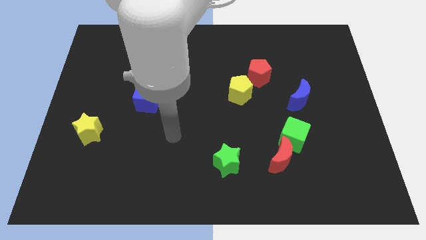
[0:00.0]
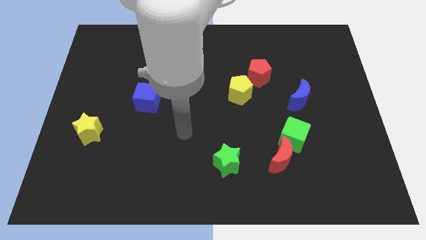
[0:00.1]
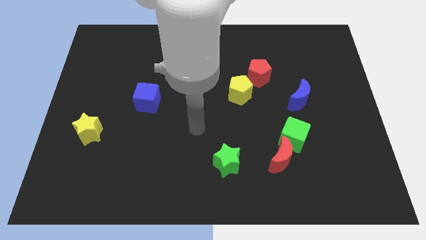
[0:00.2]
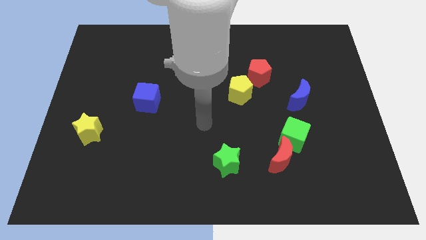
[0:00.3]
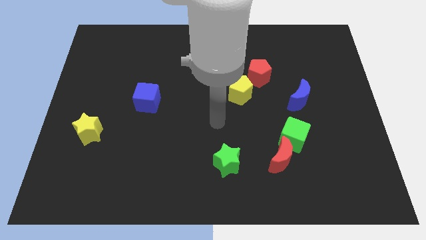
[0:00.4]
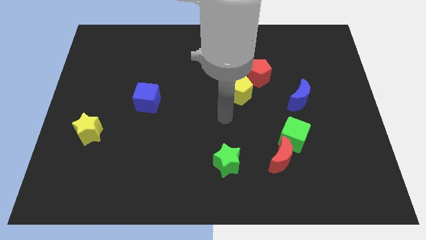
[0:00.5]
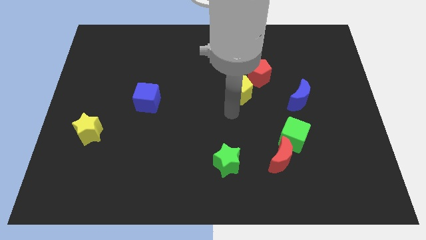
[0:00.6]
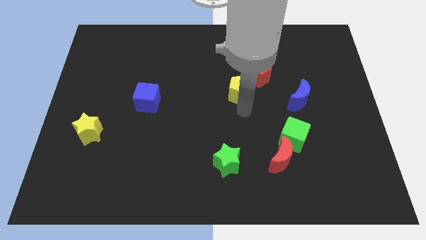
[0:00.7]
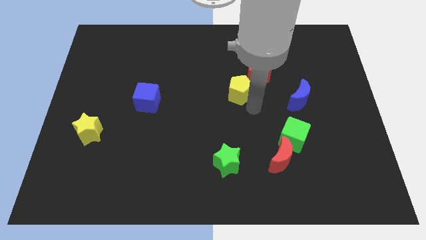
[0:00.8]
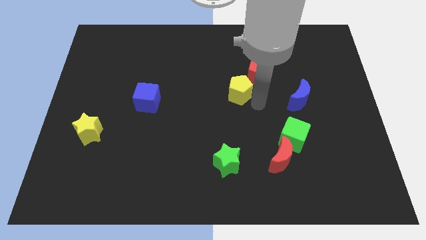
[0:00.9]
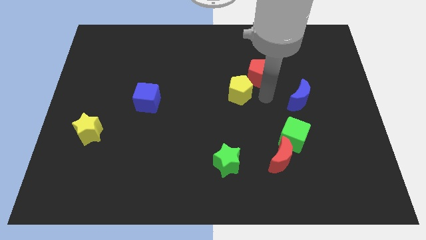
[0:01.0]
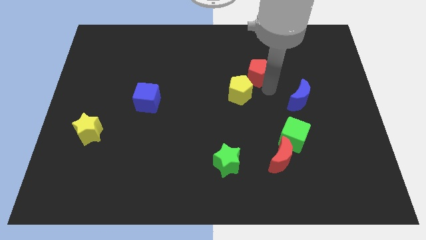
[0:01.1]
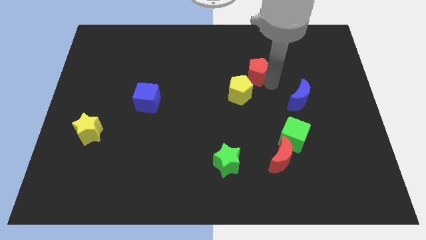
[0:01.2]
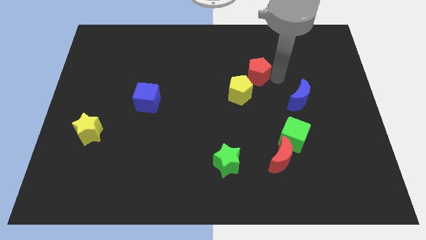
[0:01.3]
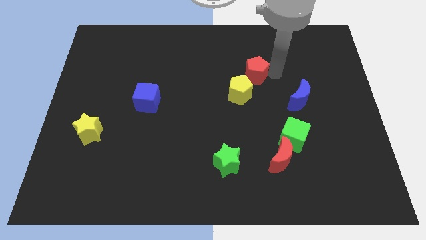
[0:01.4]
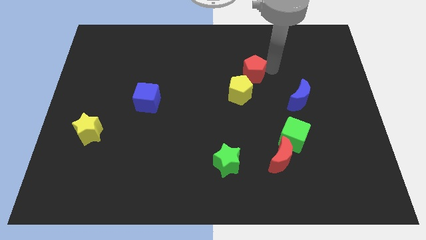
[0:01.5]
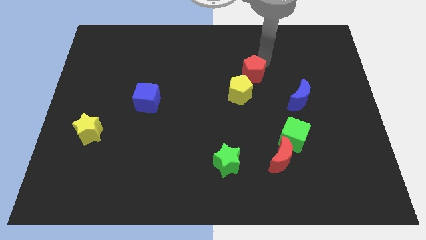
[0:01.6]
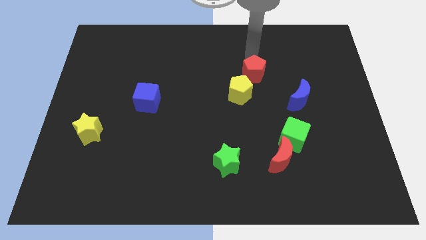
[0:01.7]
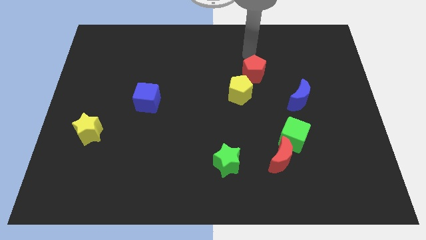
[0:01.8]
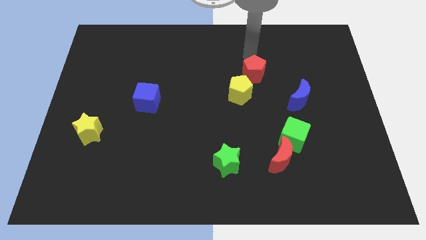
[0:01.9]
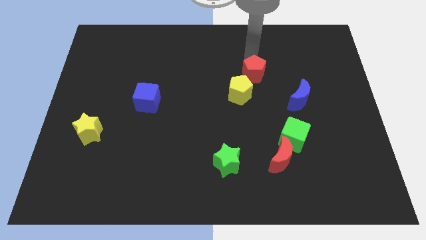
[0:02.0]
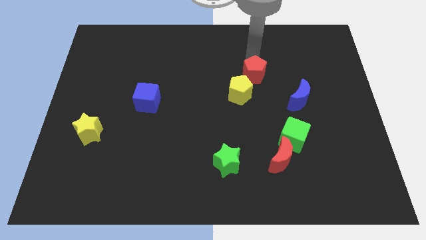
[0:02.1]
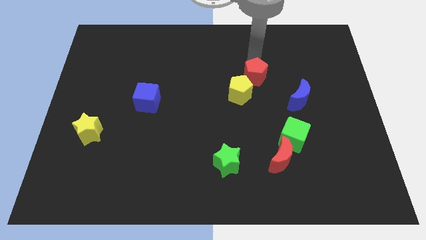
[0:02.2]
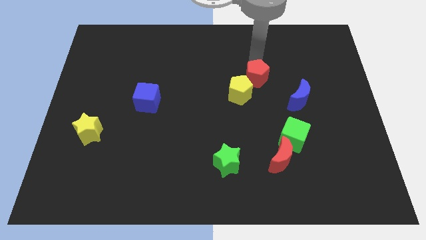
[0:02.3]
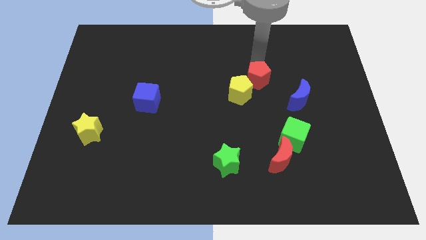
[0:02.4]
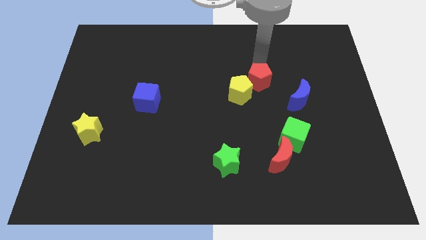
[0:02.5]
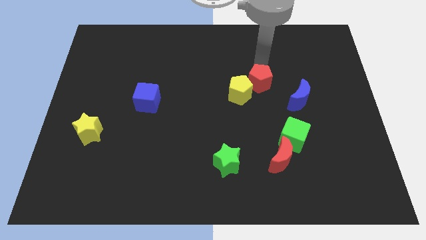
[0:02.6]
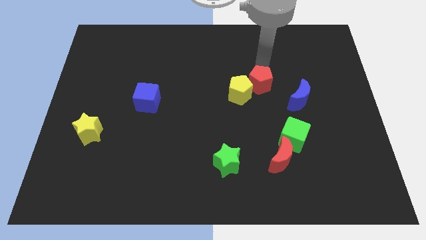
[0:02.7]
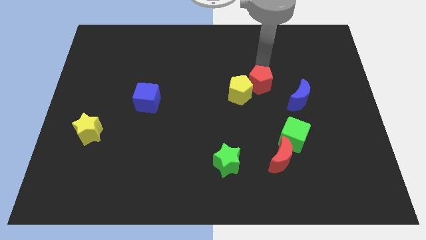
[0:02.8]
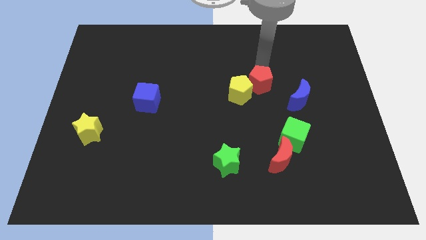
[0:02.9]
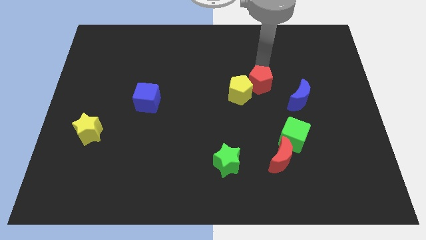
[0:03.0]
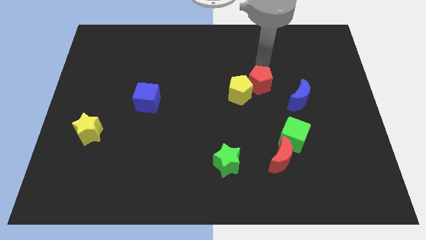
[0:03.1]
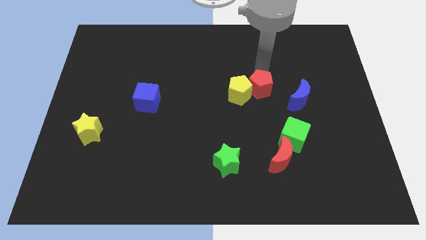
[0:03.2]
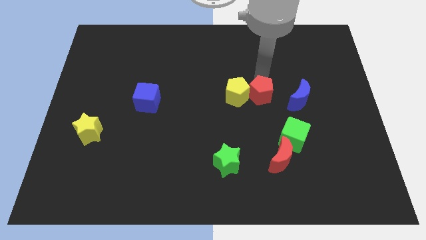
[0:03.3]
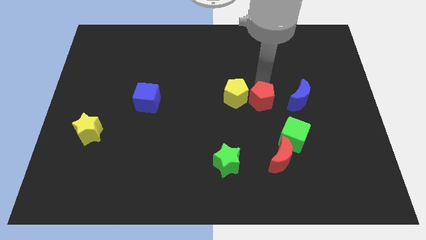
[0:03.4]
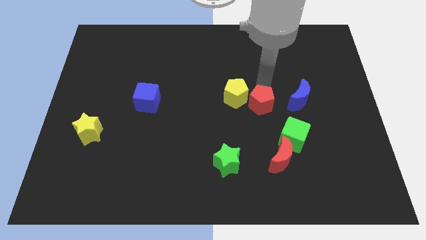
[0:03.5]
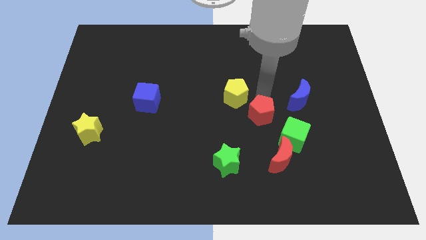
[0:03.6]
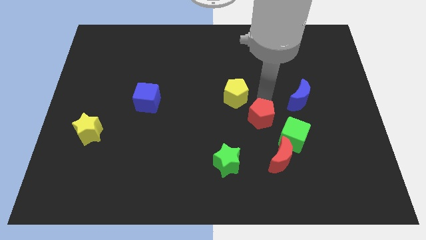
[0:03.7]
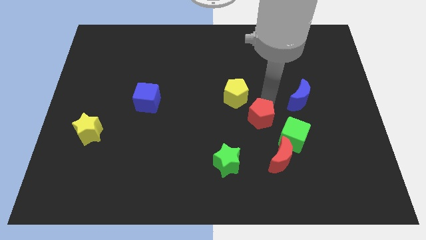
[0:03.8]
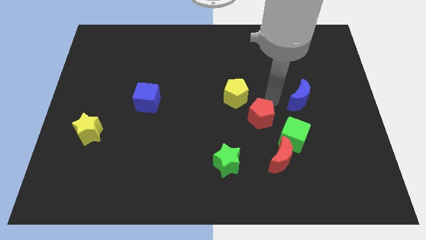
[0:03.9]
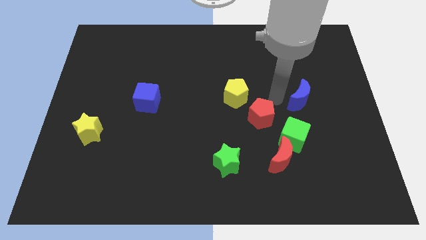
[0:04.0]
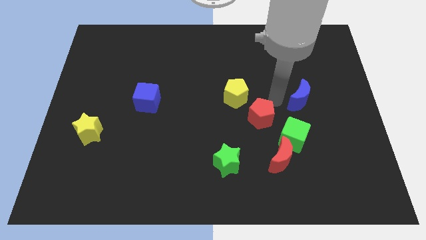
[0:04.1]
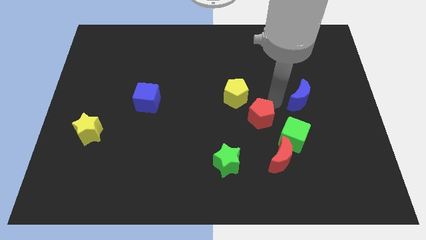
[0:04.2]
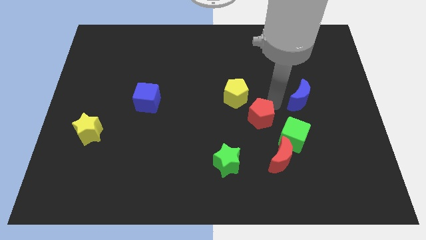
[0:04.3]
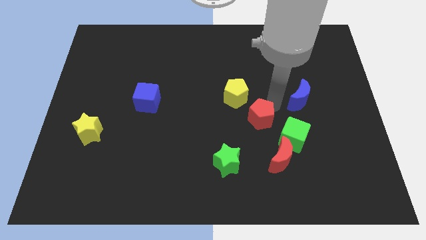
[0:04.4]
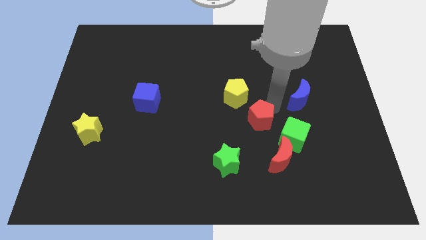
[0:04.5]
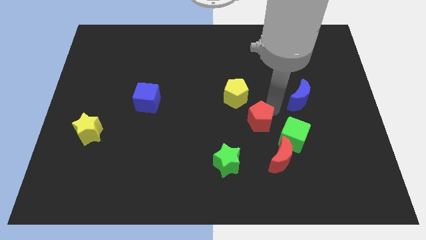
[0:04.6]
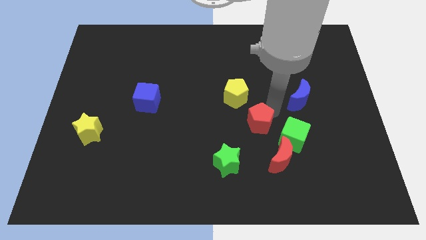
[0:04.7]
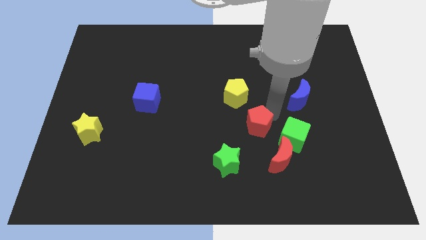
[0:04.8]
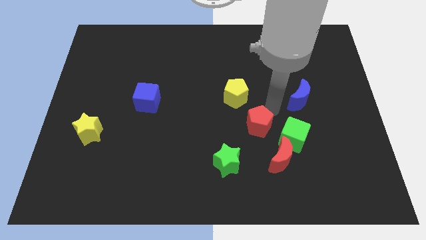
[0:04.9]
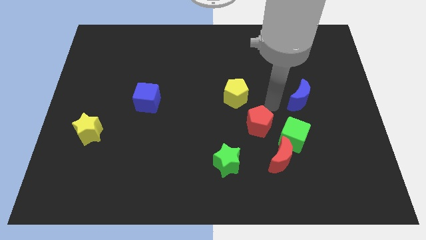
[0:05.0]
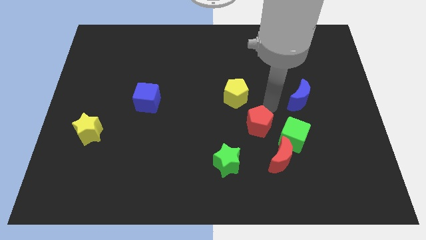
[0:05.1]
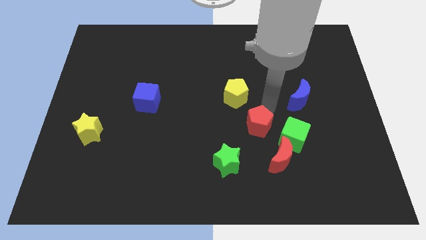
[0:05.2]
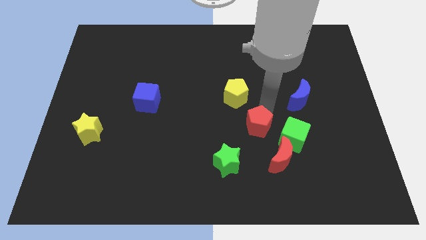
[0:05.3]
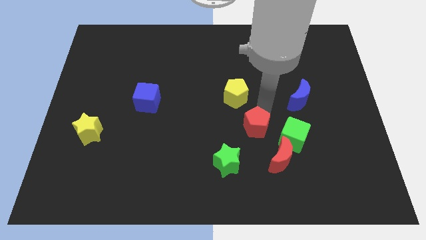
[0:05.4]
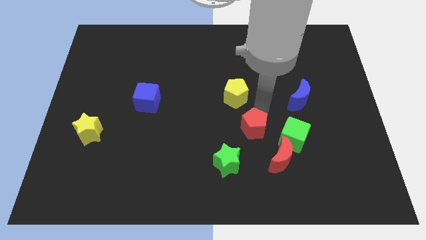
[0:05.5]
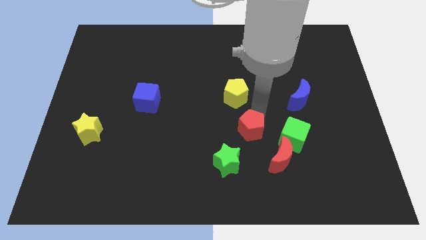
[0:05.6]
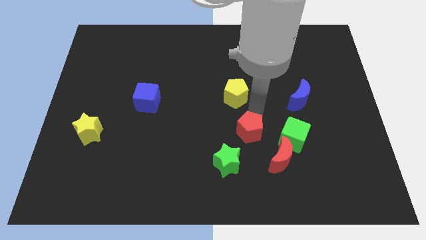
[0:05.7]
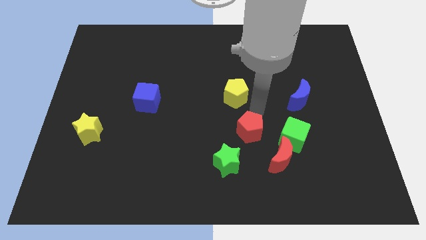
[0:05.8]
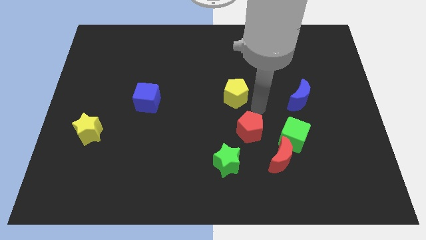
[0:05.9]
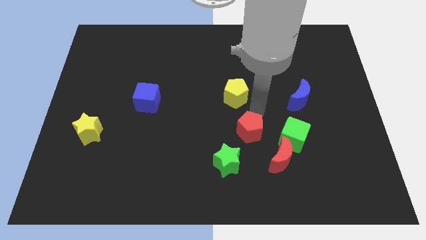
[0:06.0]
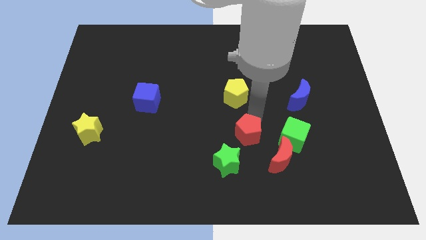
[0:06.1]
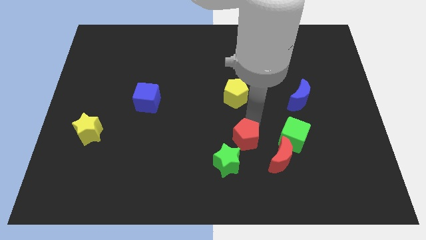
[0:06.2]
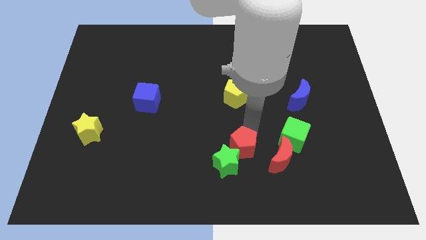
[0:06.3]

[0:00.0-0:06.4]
put the red pentagon close to the green star
